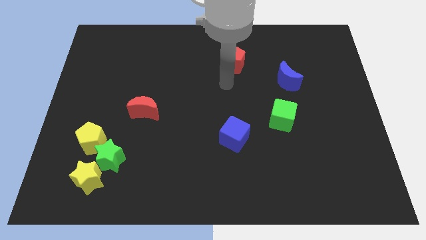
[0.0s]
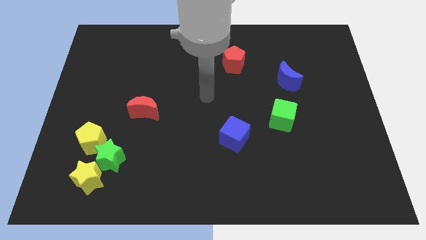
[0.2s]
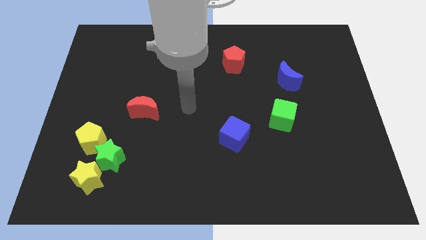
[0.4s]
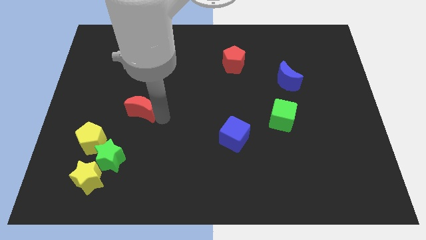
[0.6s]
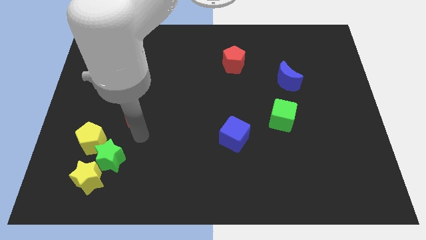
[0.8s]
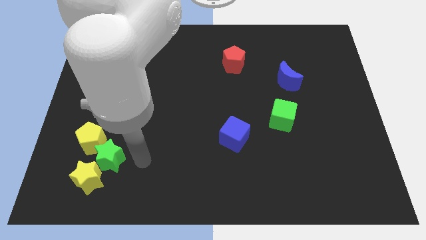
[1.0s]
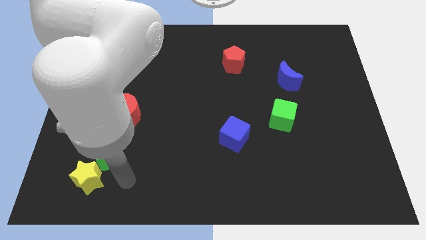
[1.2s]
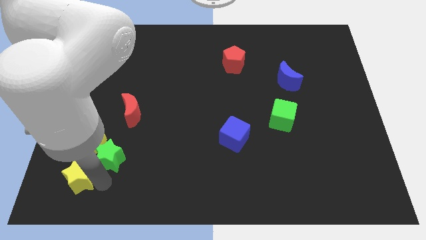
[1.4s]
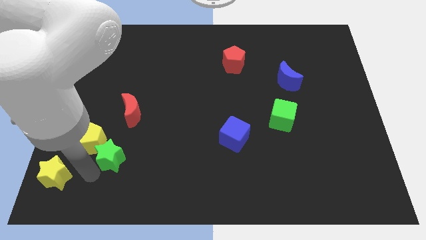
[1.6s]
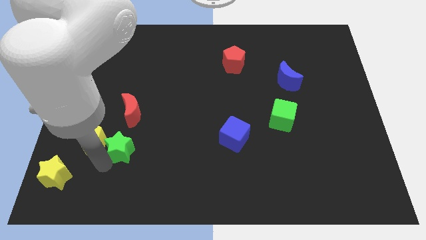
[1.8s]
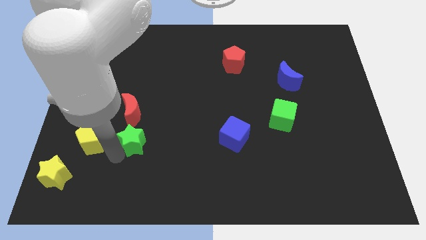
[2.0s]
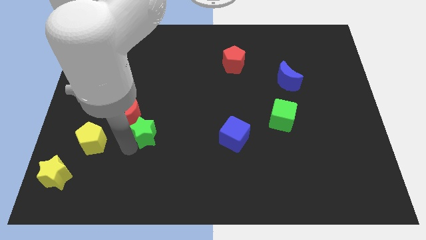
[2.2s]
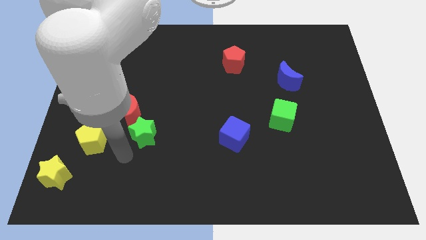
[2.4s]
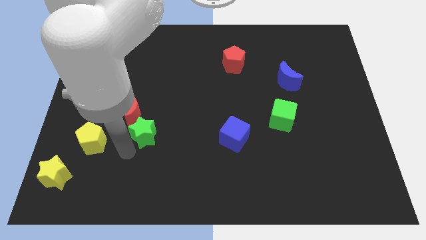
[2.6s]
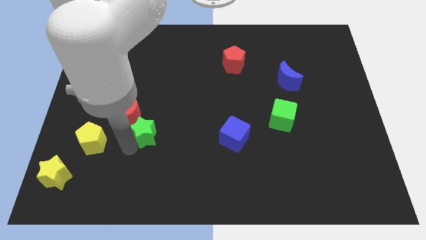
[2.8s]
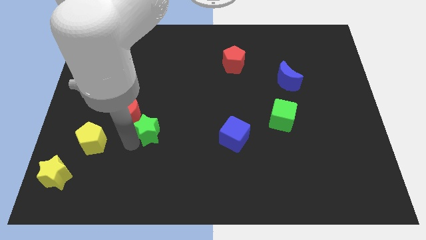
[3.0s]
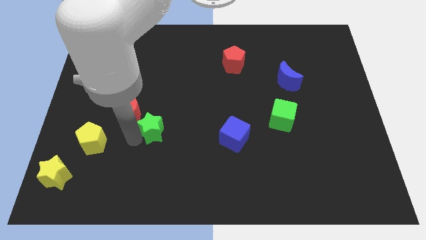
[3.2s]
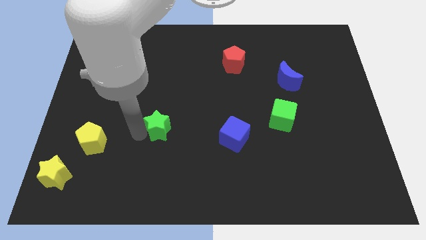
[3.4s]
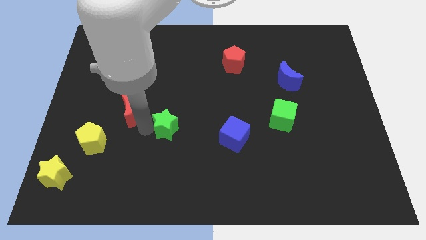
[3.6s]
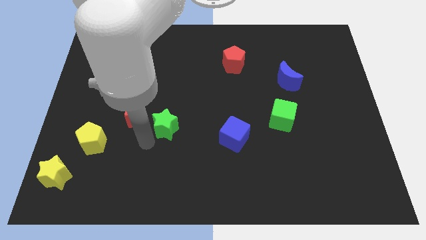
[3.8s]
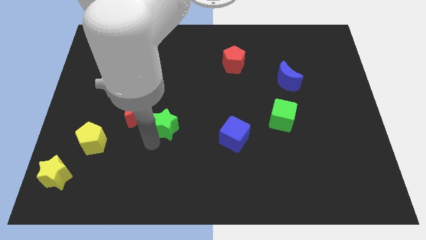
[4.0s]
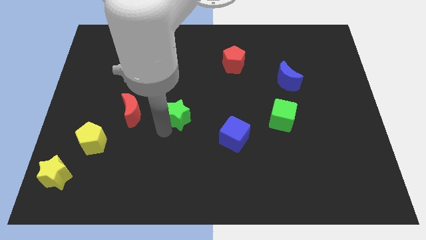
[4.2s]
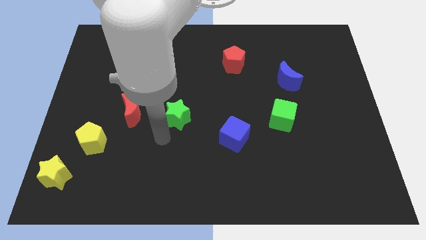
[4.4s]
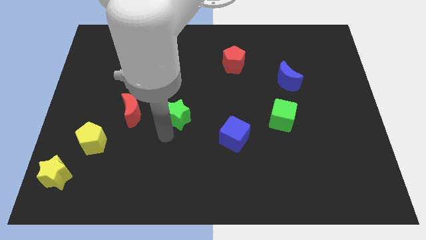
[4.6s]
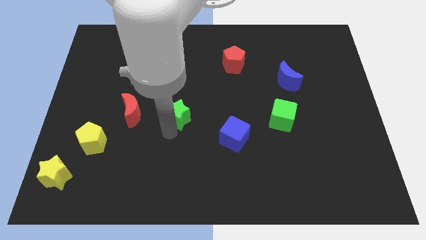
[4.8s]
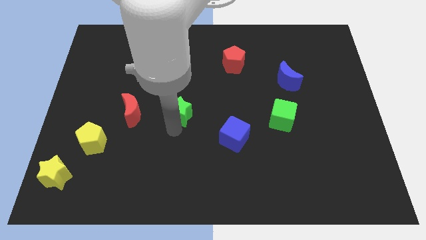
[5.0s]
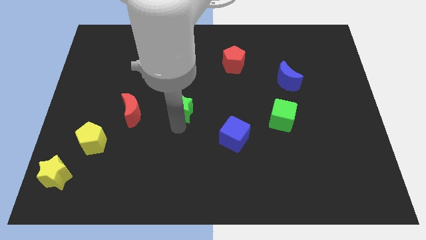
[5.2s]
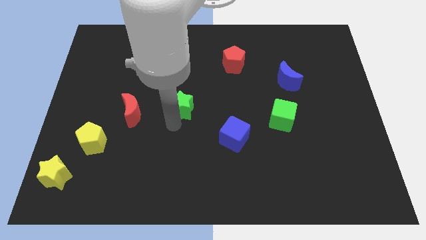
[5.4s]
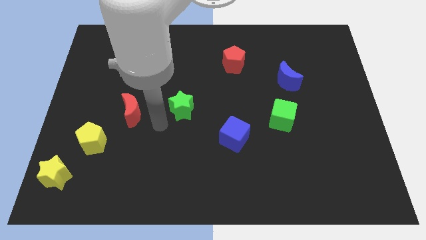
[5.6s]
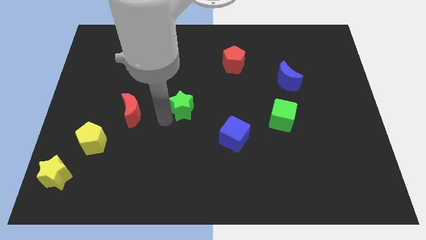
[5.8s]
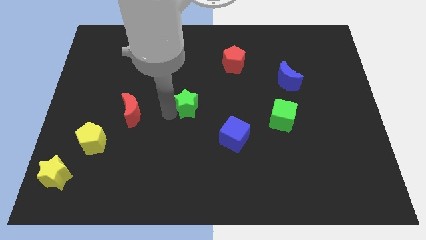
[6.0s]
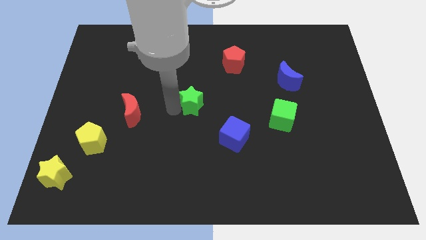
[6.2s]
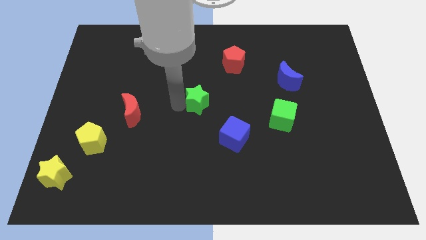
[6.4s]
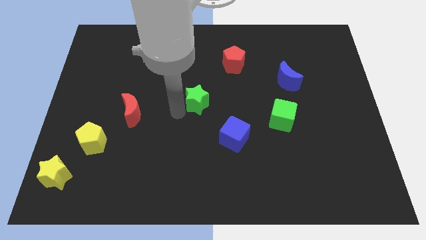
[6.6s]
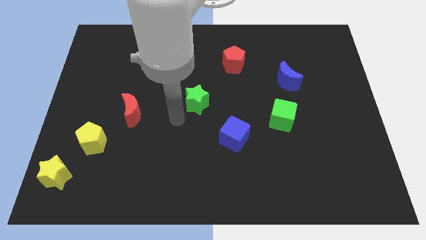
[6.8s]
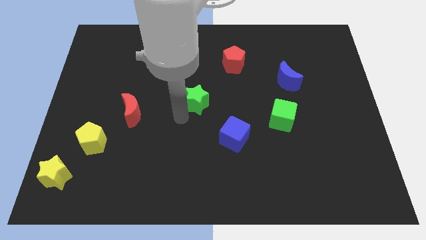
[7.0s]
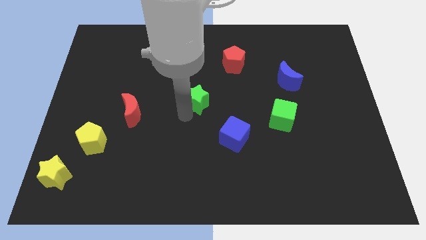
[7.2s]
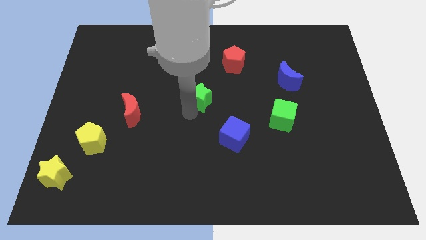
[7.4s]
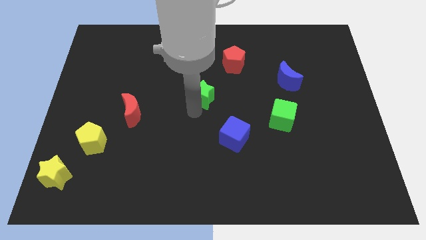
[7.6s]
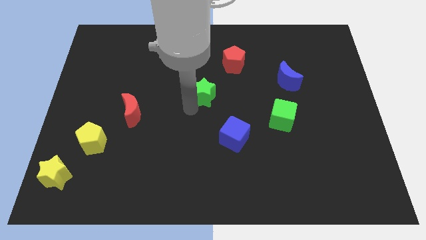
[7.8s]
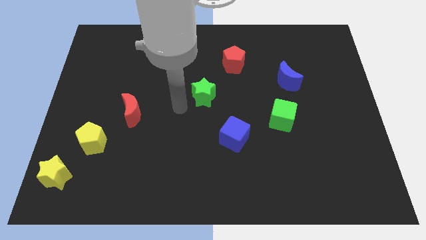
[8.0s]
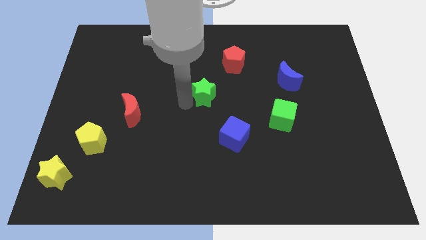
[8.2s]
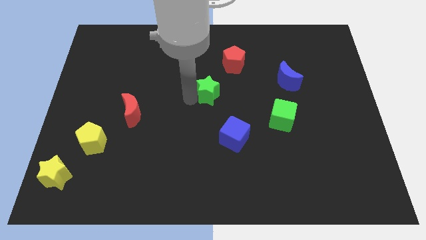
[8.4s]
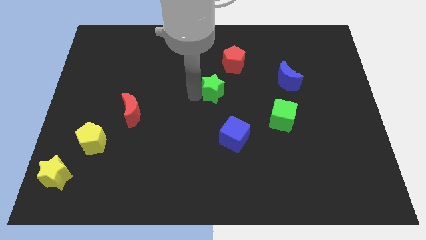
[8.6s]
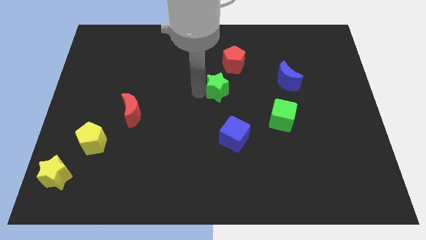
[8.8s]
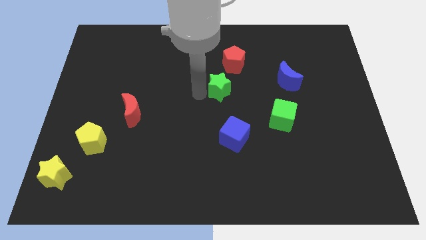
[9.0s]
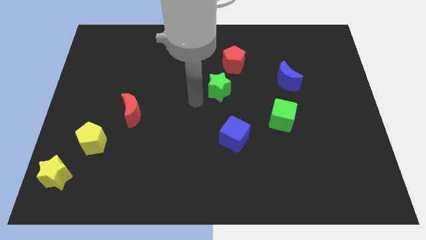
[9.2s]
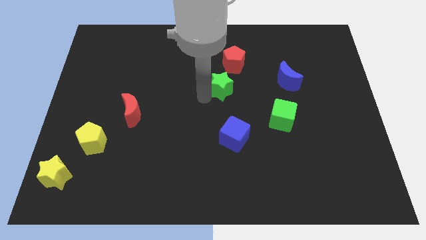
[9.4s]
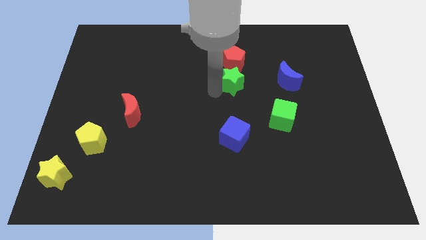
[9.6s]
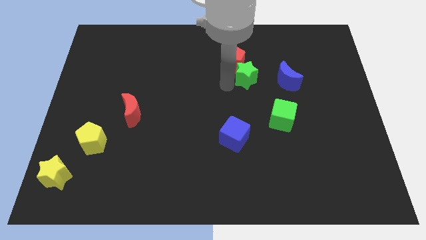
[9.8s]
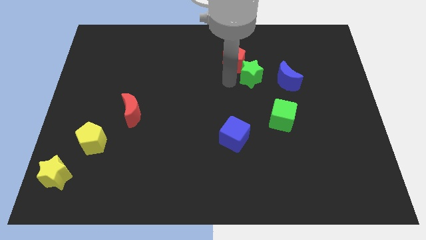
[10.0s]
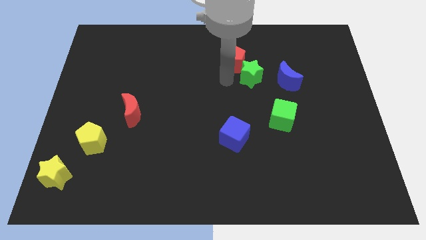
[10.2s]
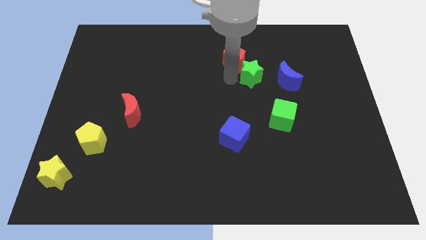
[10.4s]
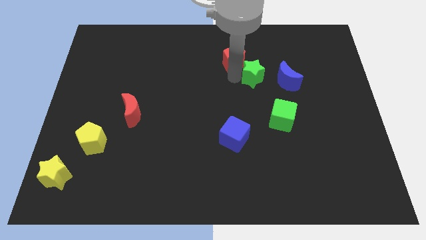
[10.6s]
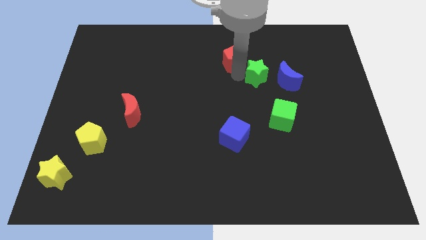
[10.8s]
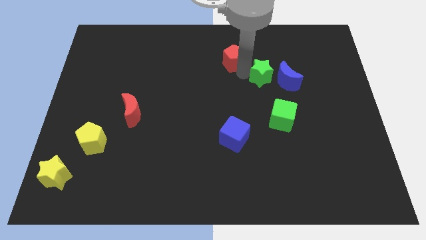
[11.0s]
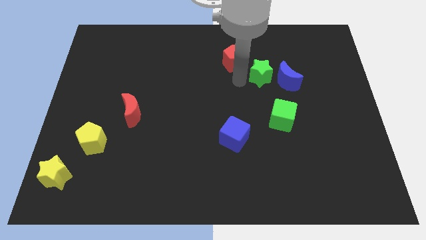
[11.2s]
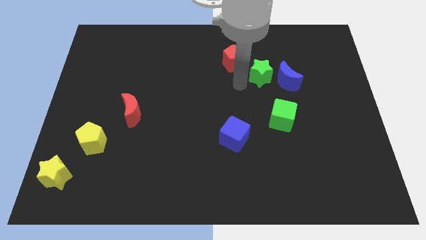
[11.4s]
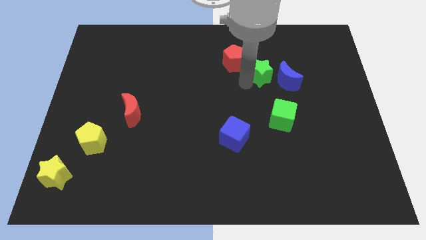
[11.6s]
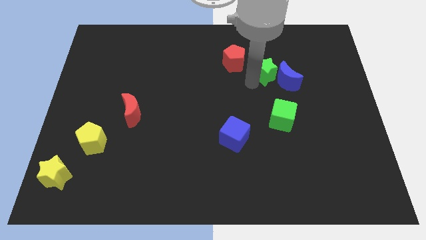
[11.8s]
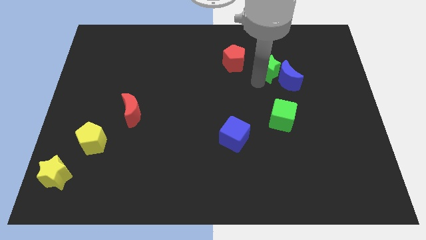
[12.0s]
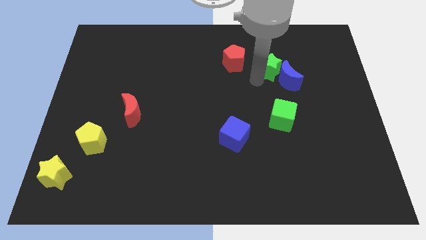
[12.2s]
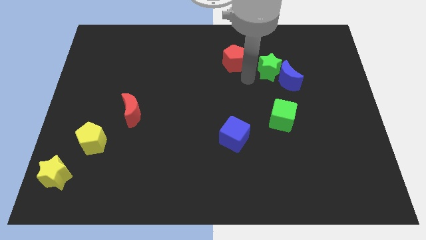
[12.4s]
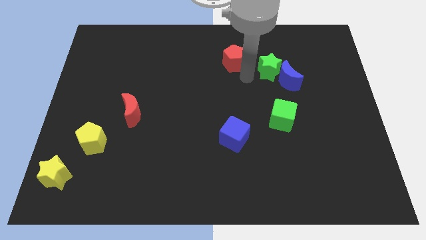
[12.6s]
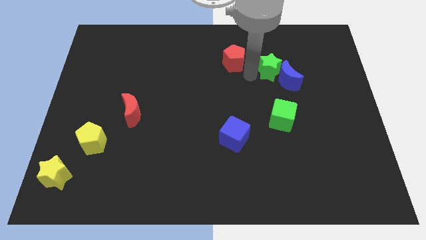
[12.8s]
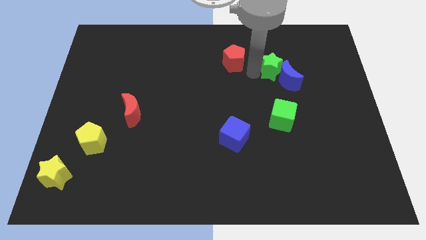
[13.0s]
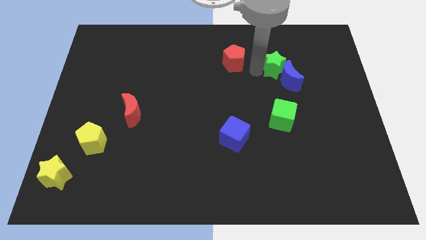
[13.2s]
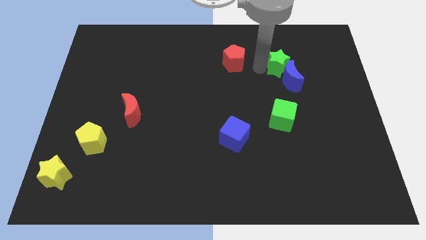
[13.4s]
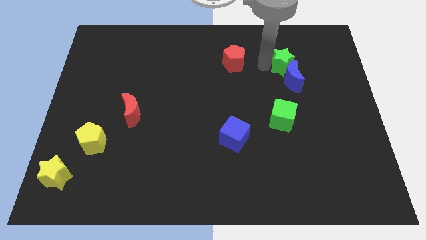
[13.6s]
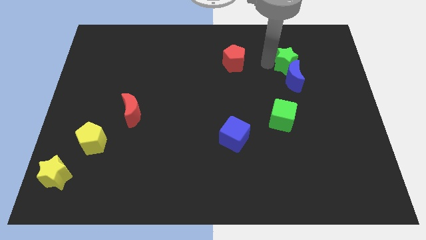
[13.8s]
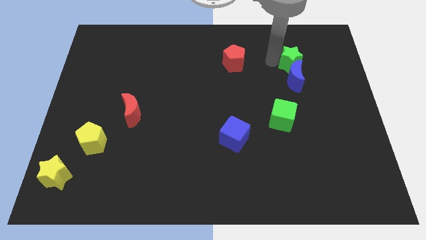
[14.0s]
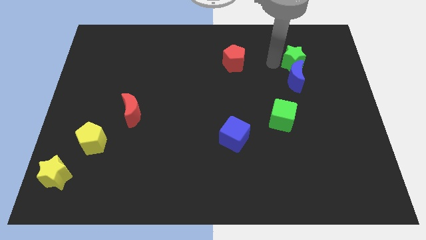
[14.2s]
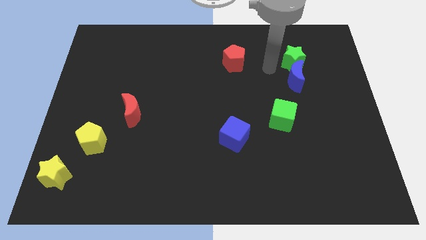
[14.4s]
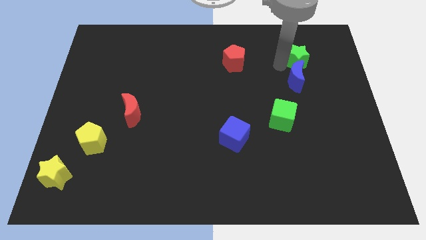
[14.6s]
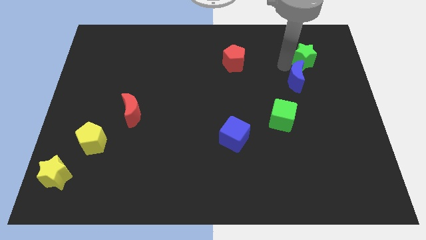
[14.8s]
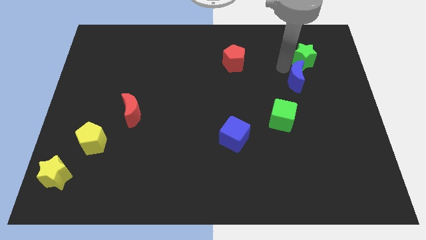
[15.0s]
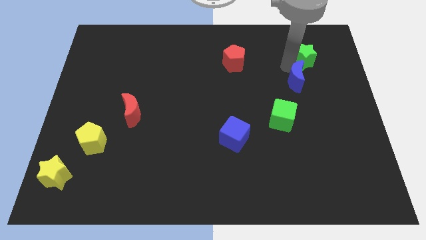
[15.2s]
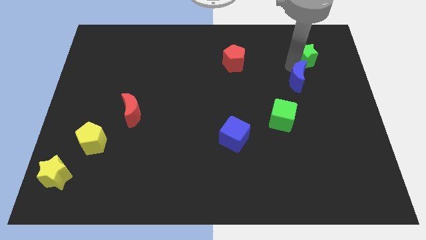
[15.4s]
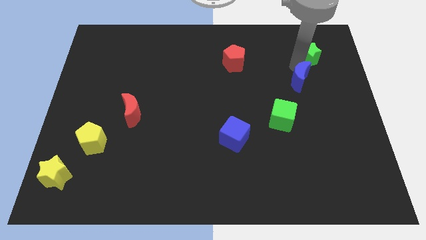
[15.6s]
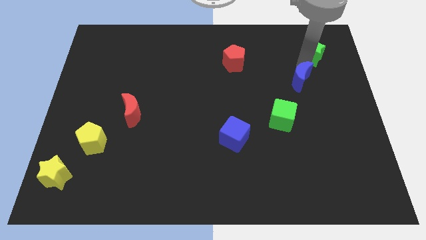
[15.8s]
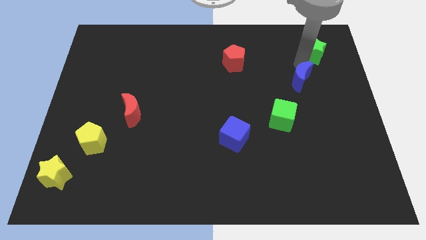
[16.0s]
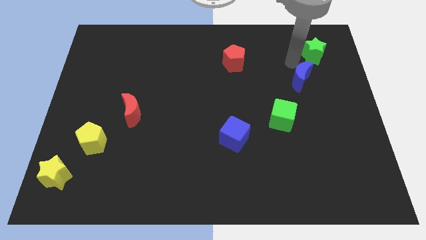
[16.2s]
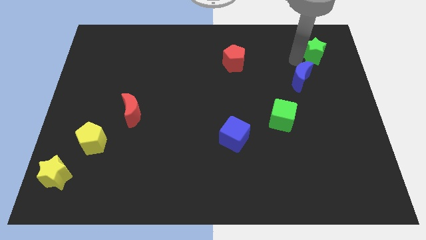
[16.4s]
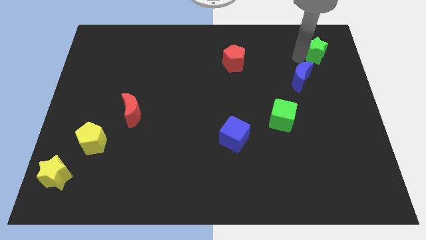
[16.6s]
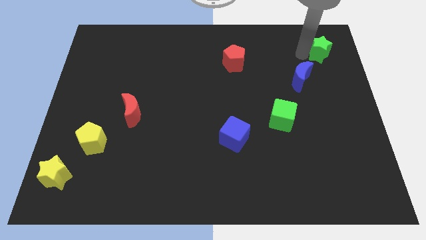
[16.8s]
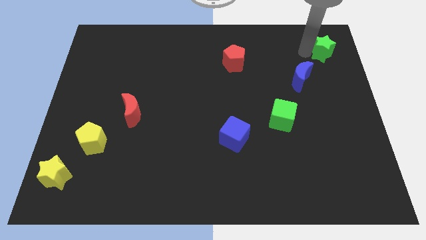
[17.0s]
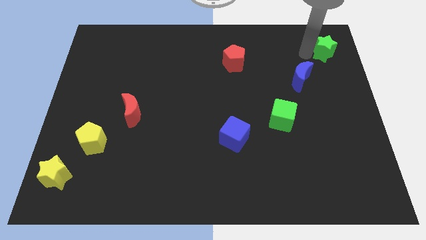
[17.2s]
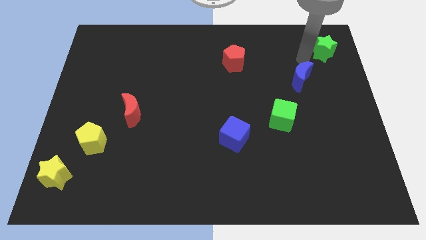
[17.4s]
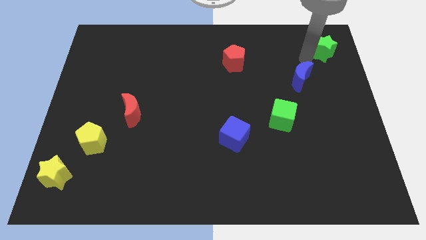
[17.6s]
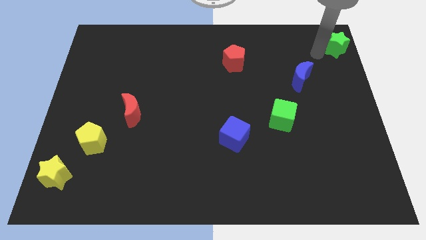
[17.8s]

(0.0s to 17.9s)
move the green star to the top right corner
